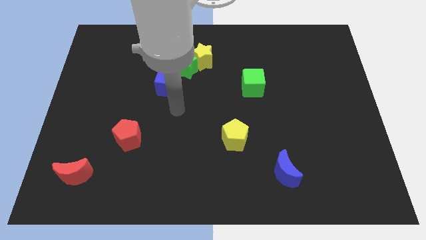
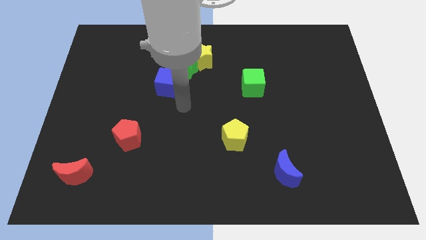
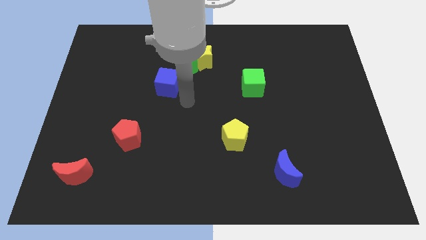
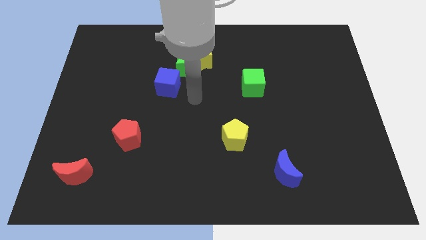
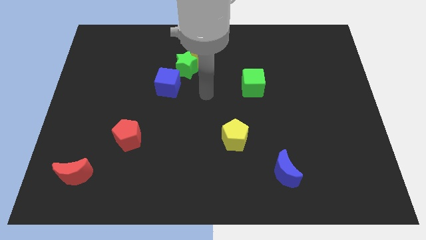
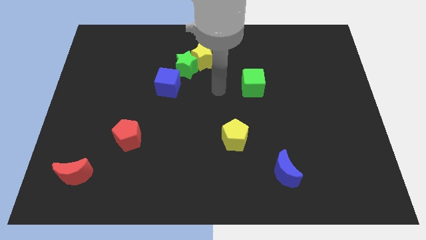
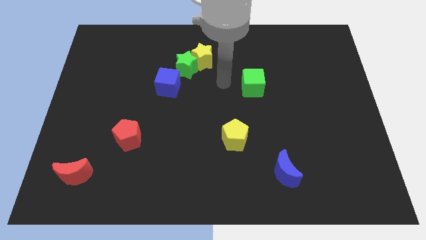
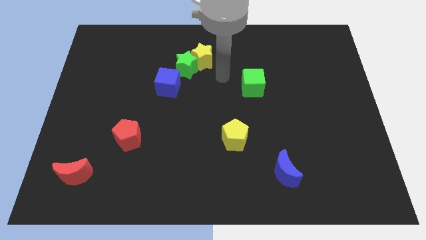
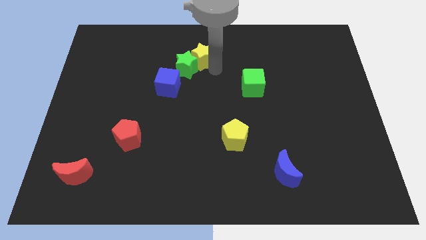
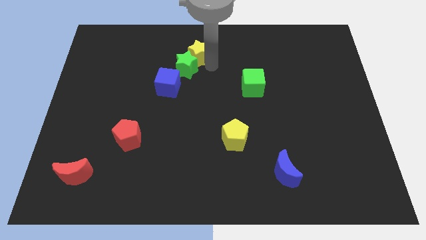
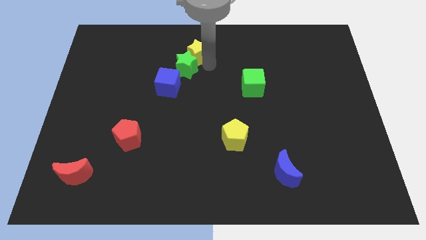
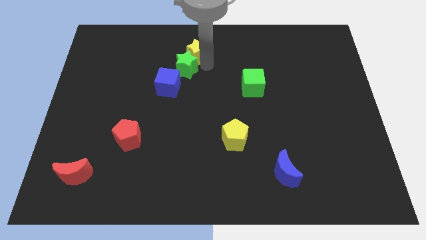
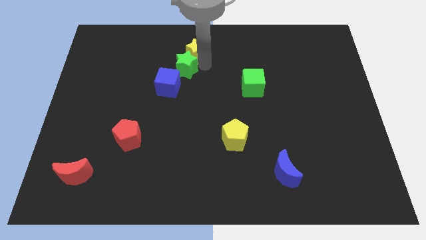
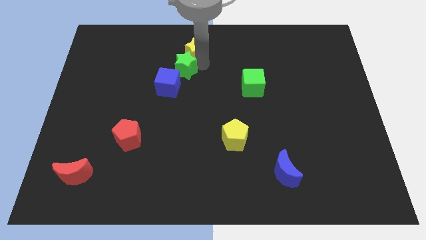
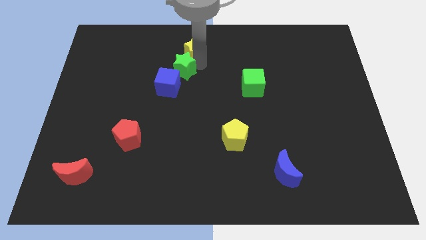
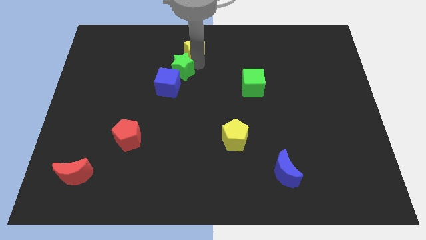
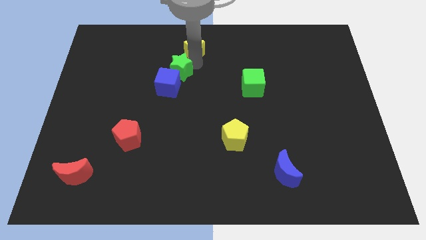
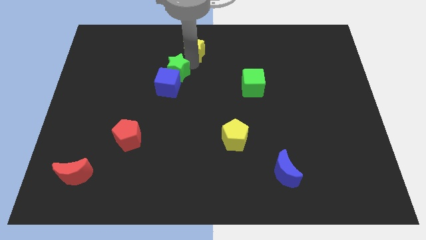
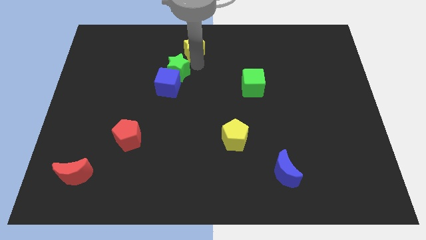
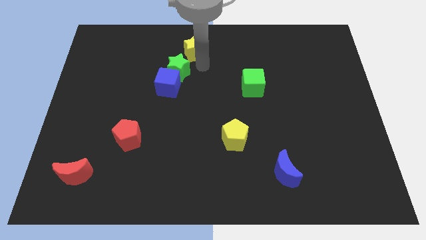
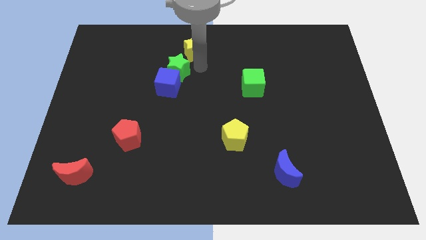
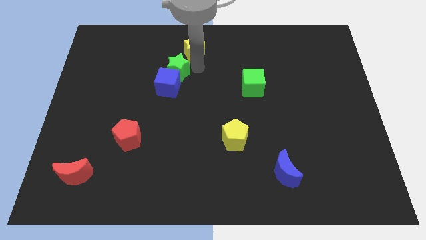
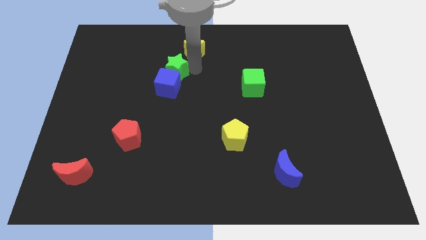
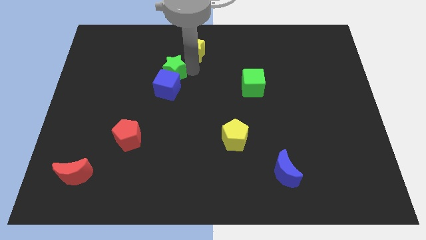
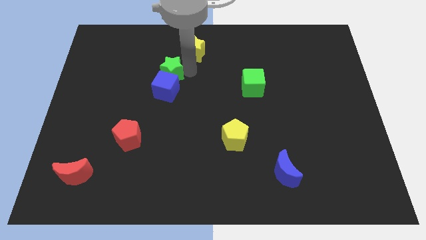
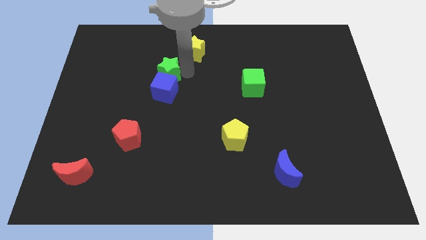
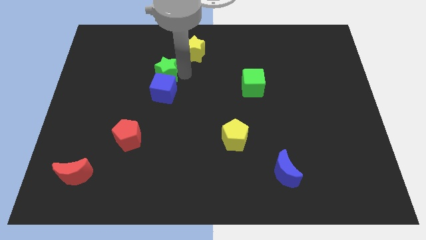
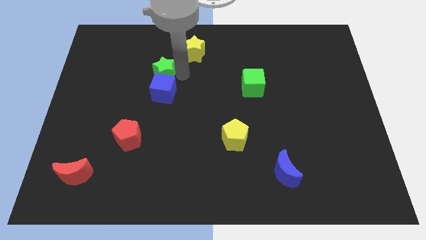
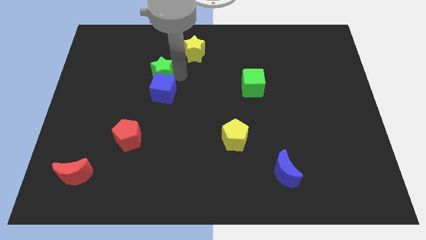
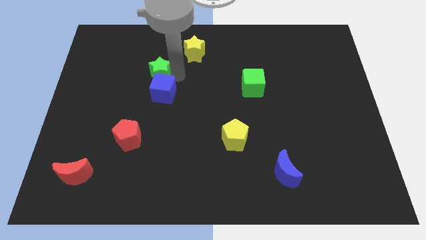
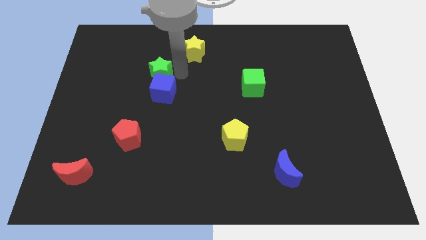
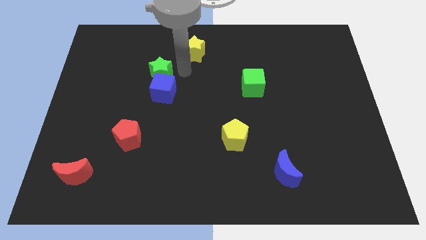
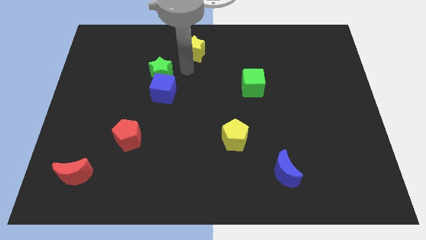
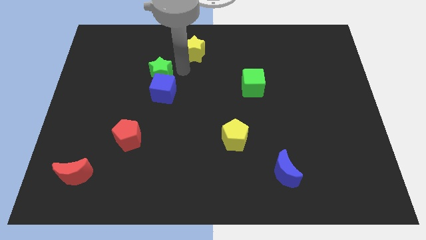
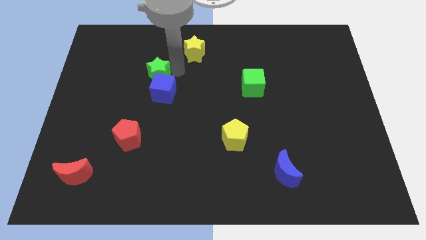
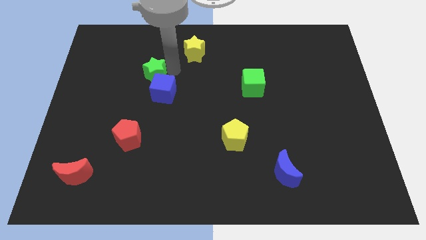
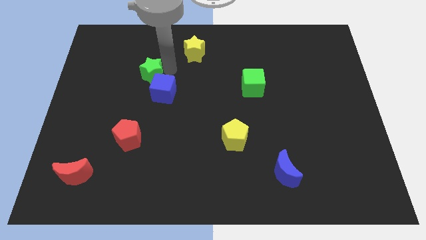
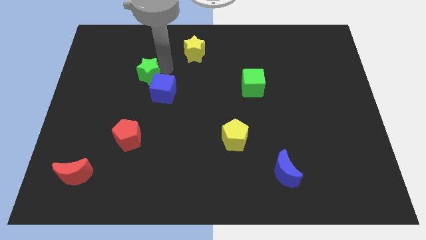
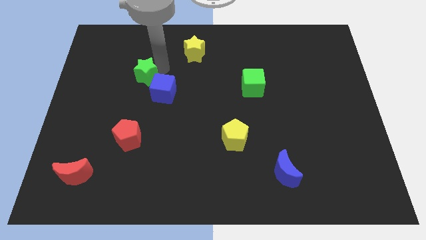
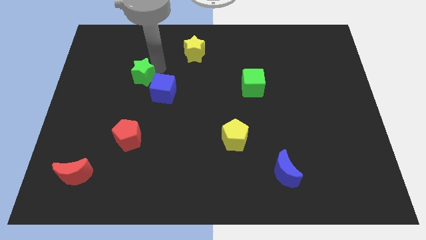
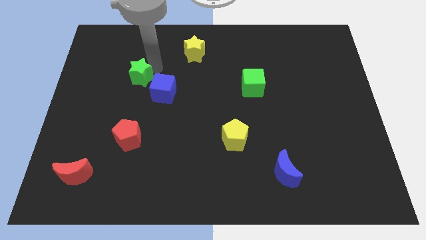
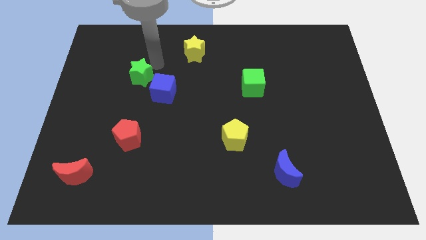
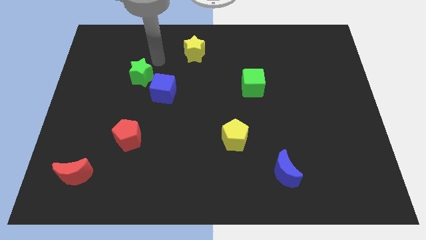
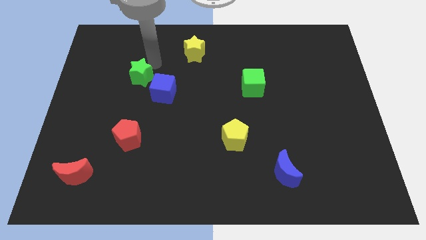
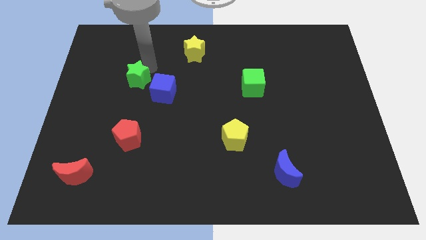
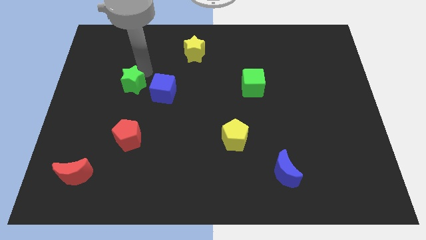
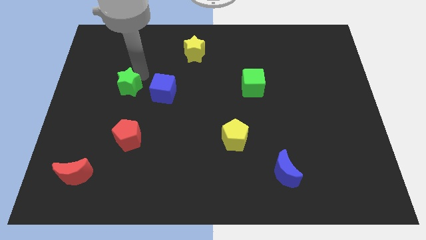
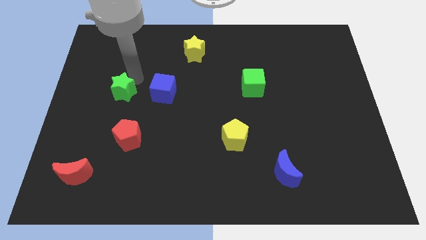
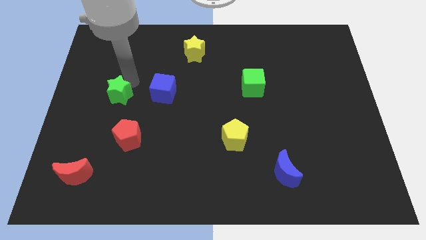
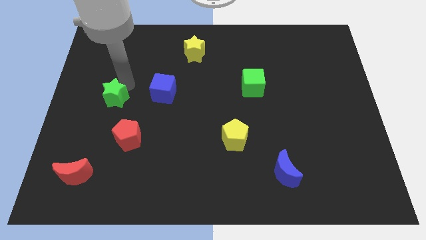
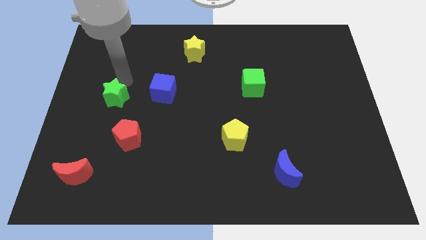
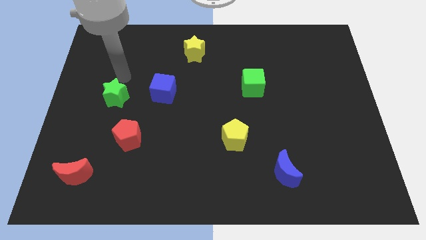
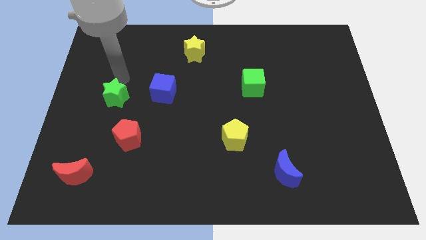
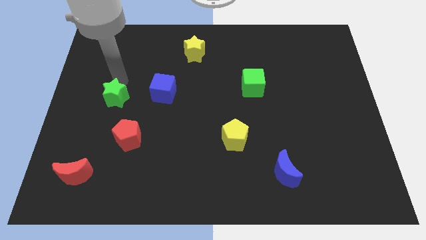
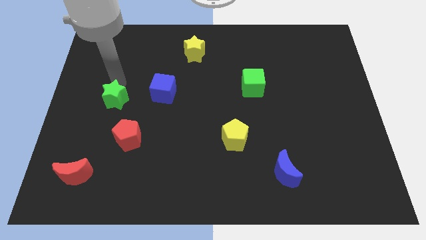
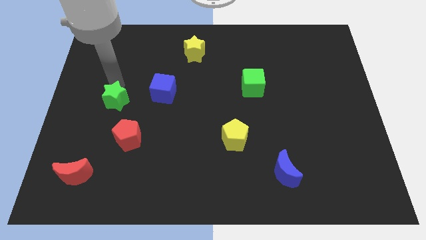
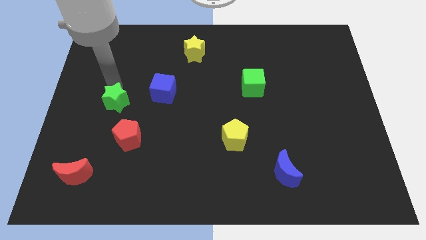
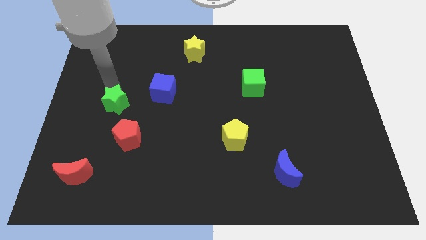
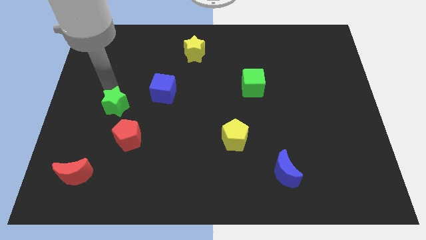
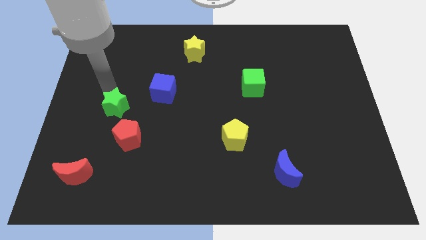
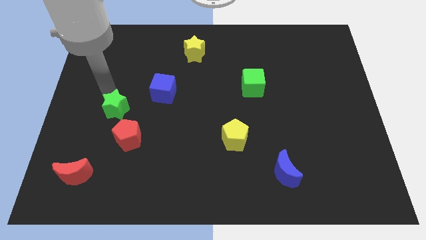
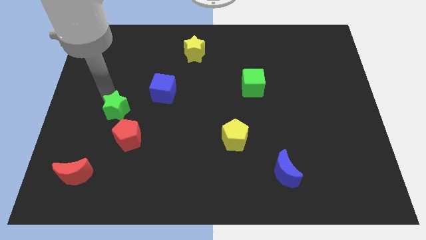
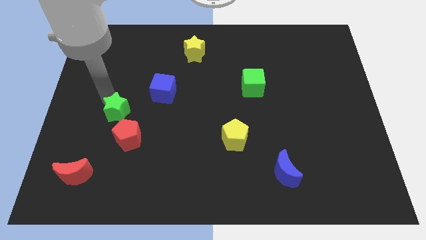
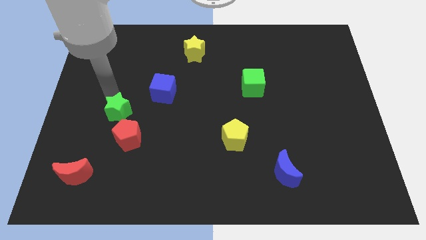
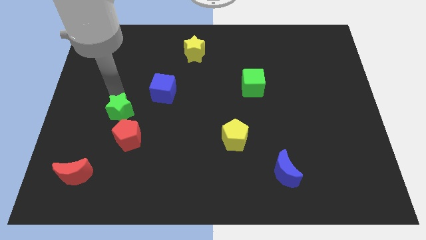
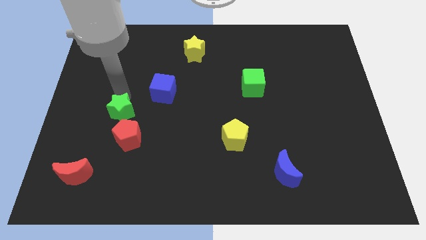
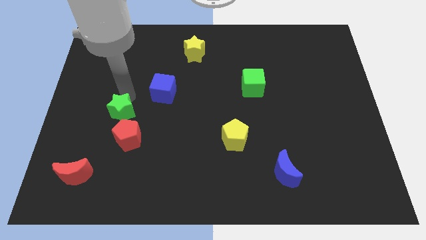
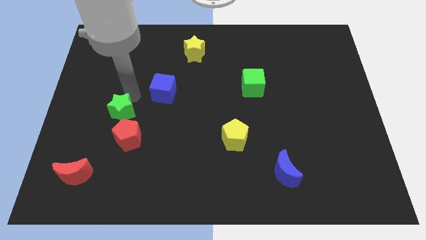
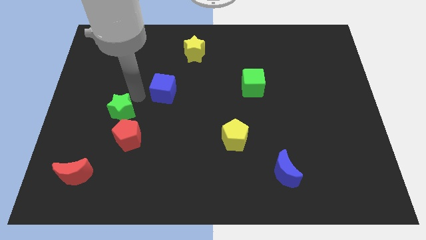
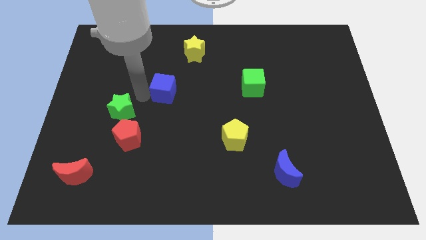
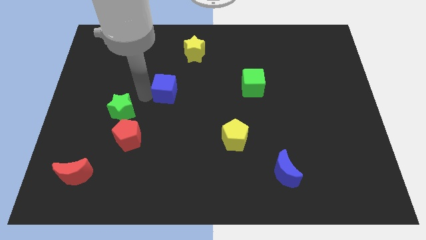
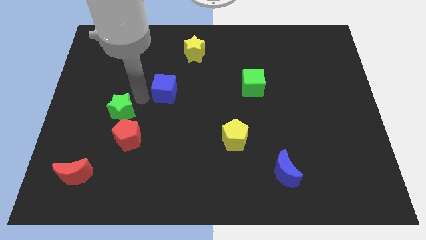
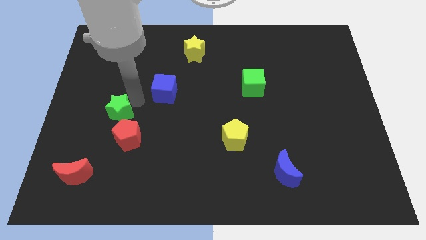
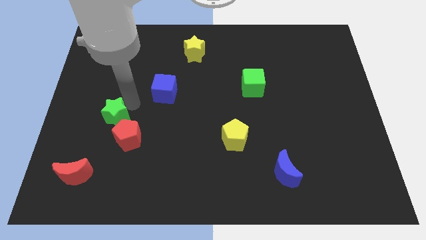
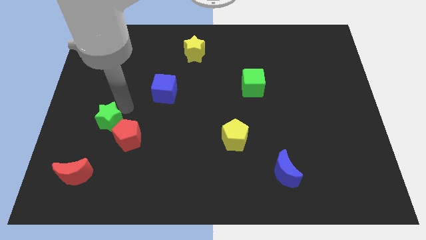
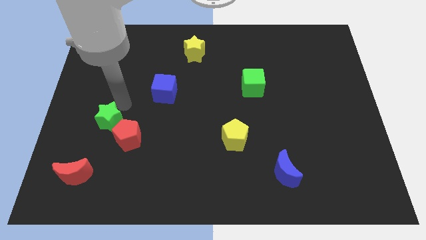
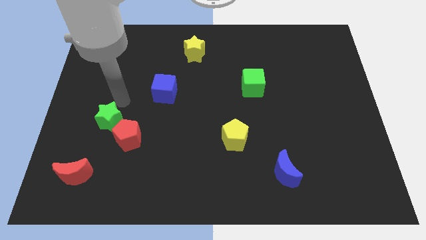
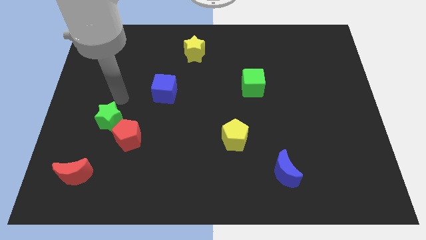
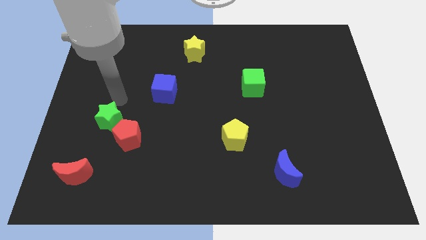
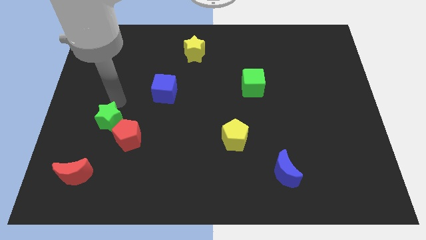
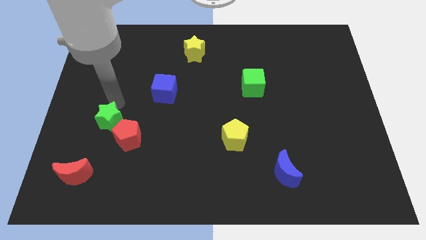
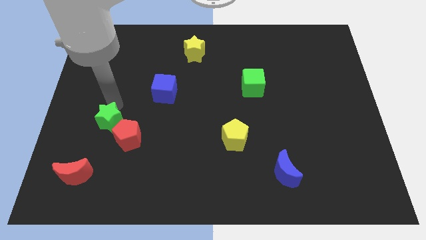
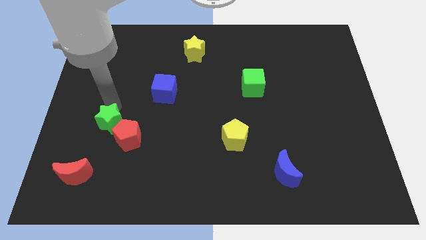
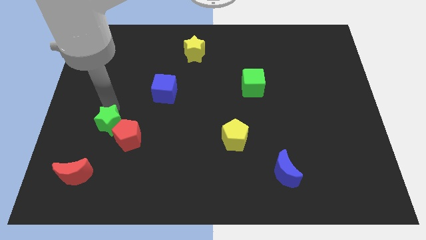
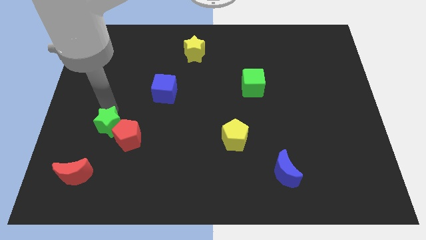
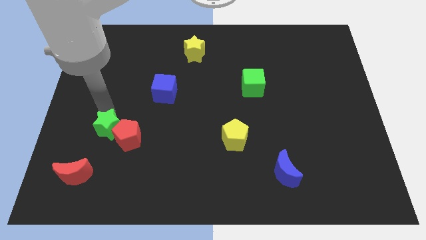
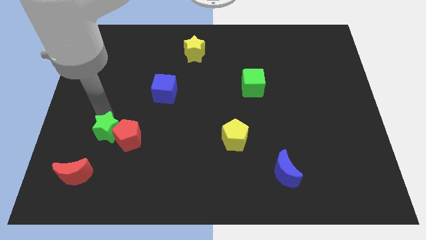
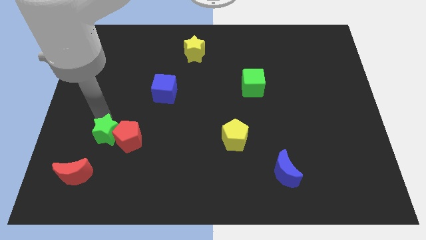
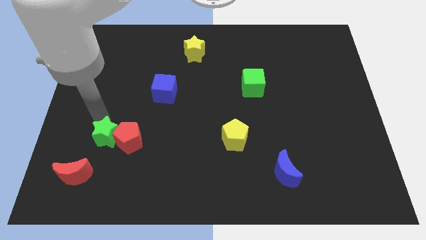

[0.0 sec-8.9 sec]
put the green star to the bottom left of the red pentagon
